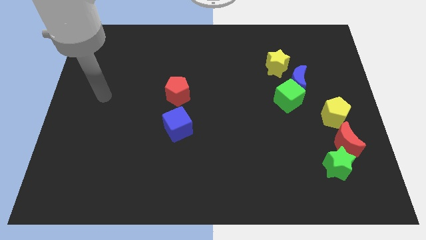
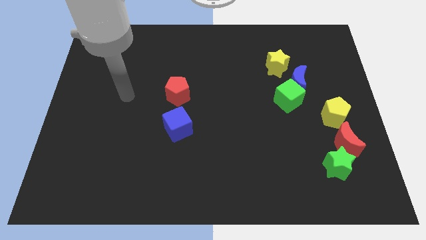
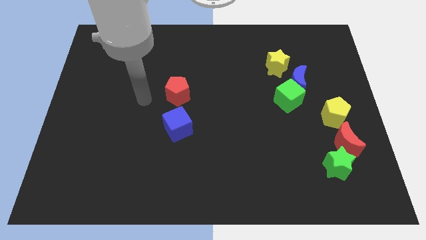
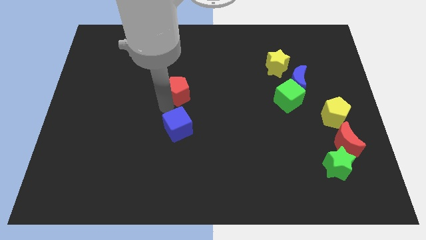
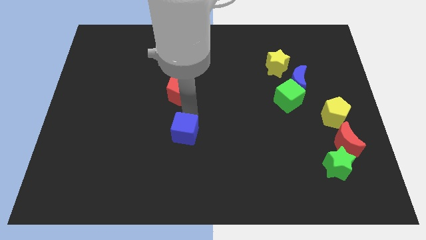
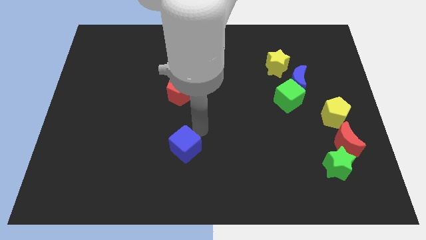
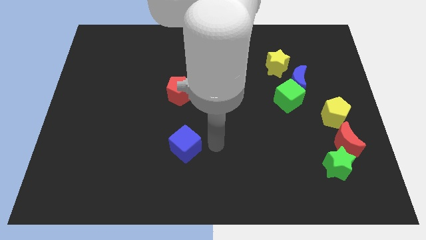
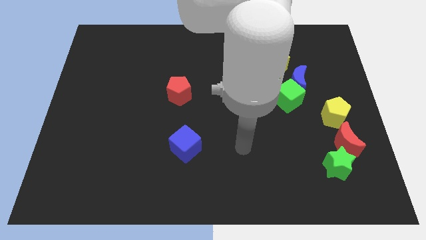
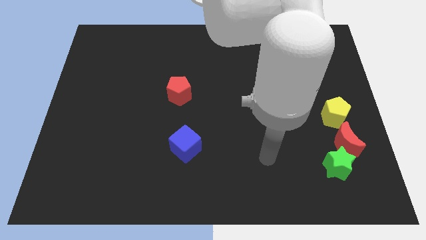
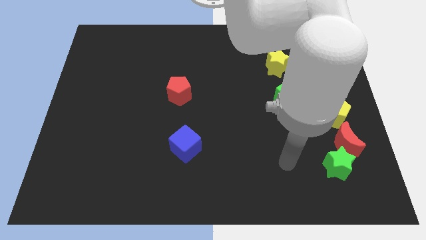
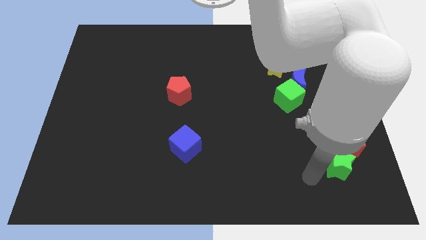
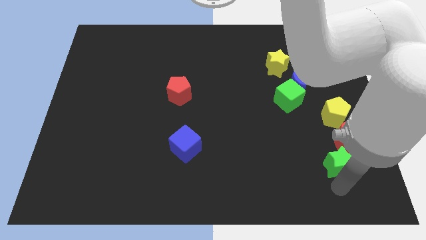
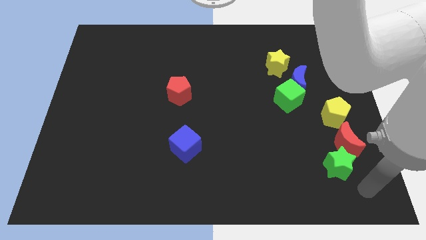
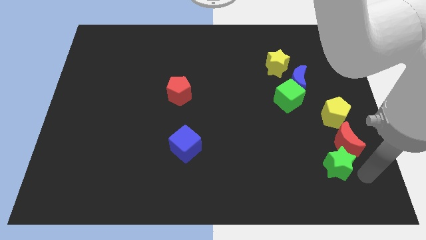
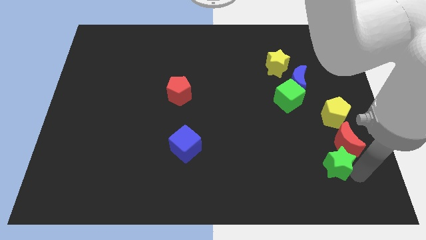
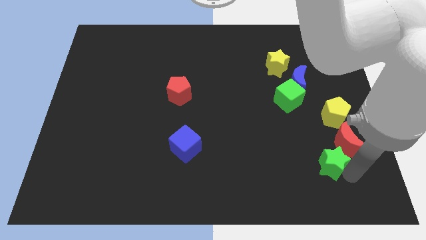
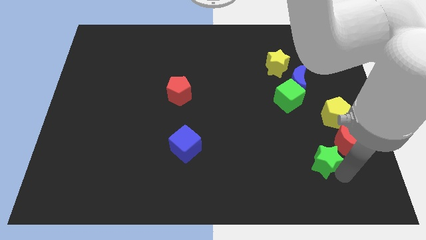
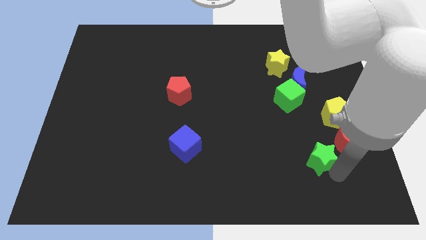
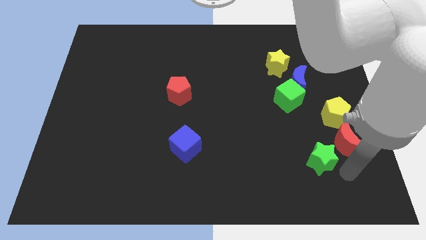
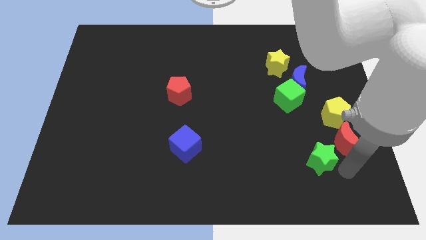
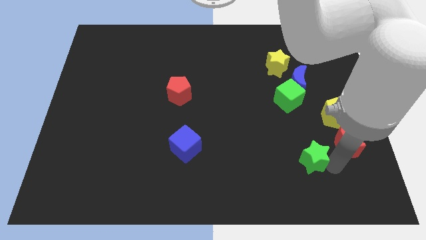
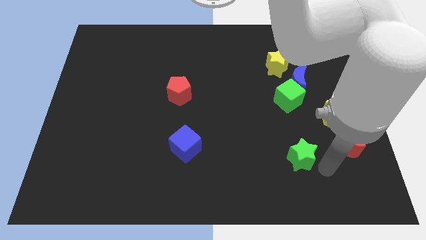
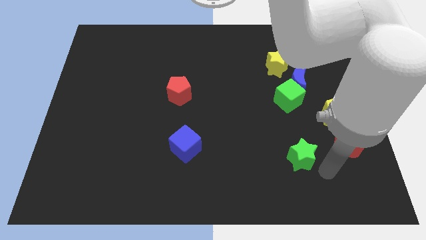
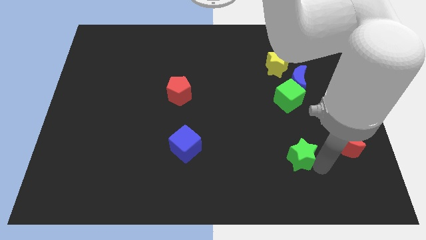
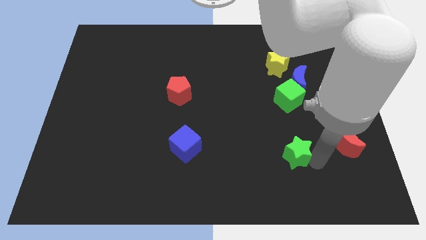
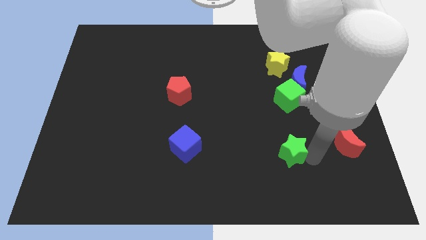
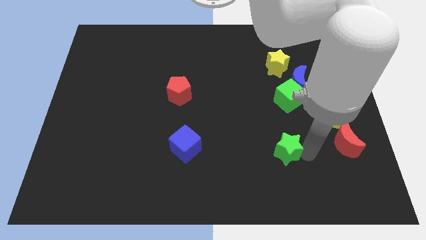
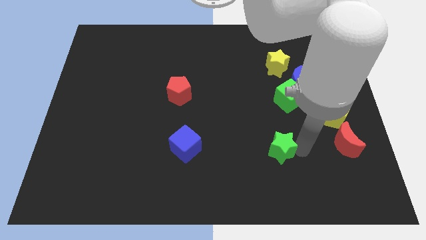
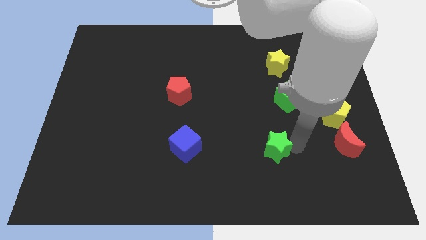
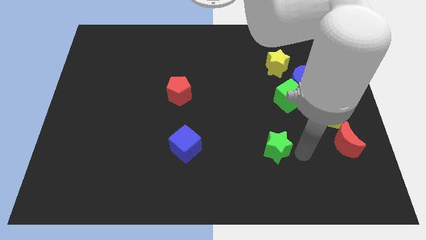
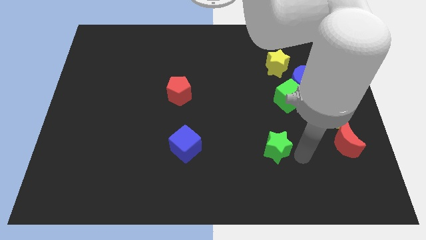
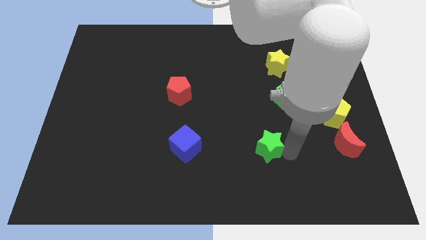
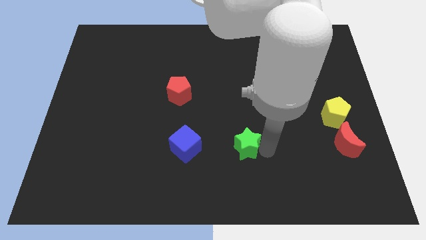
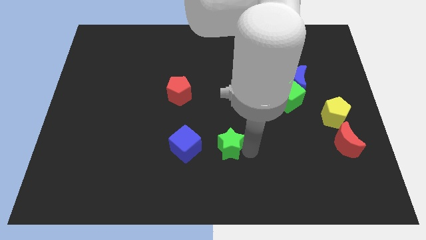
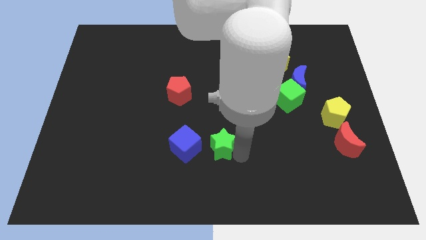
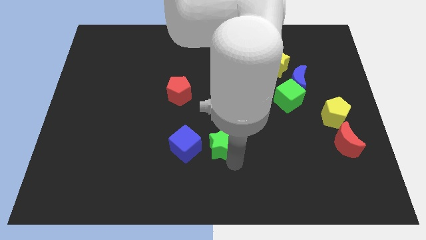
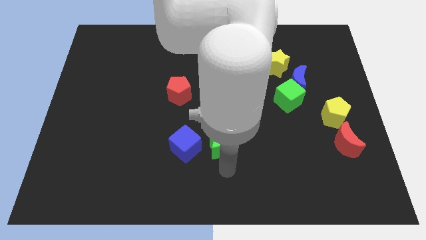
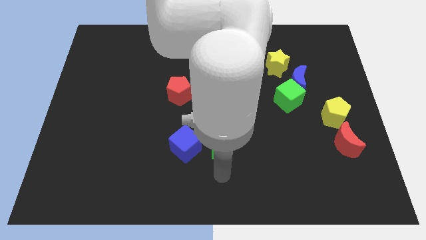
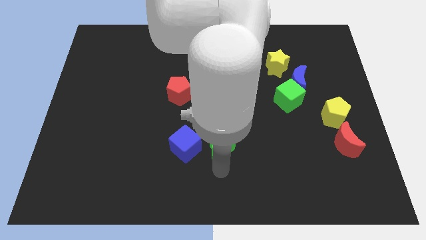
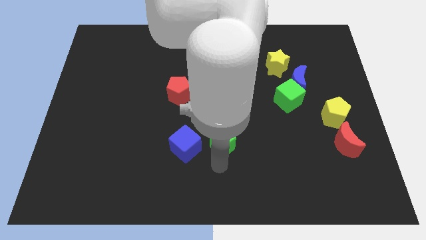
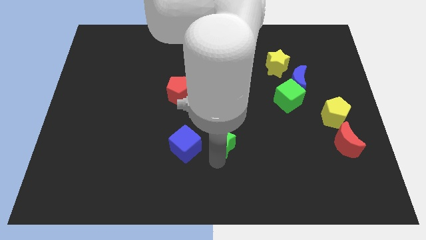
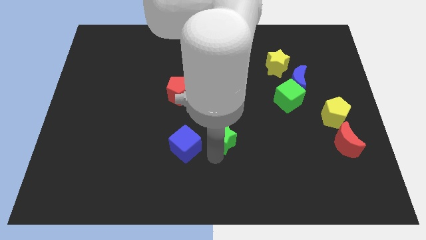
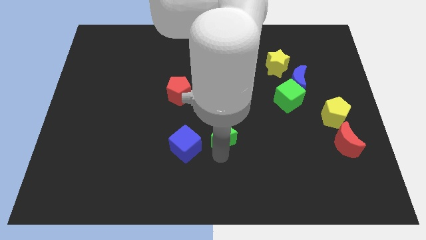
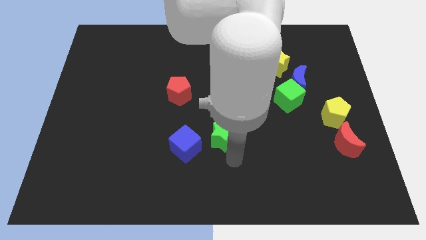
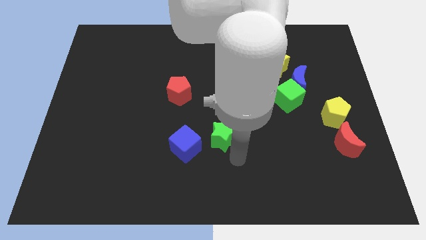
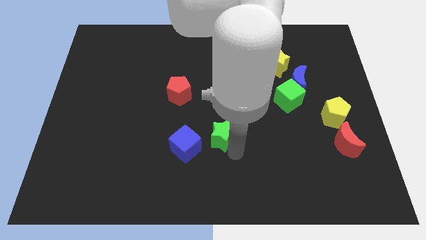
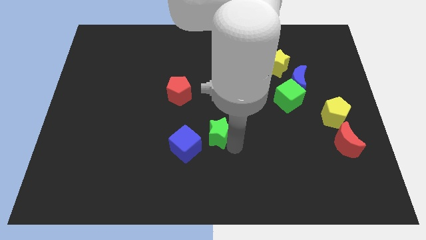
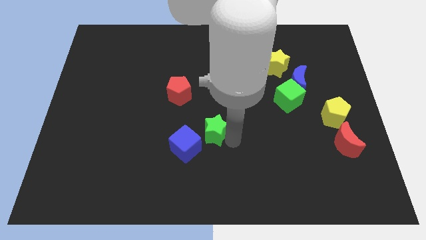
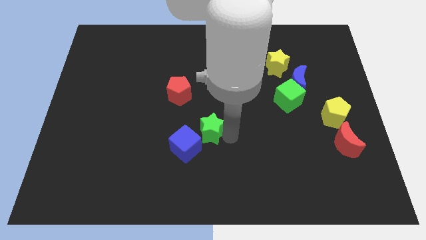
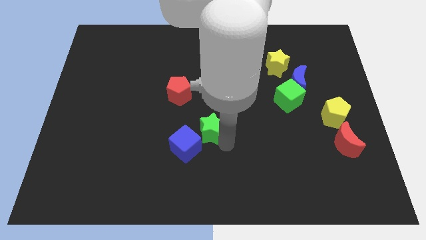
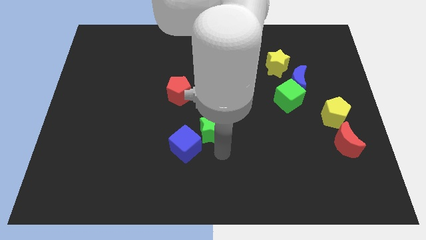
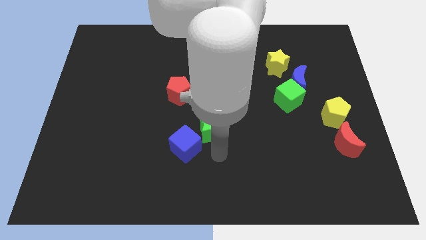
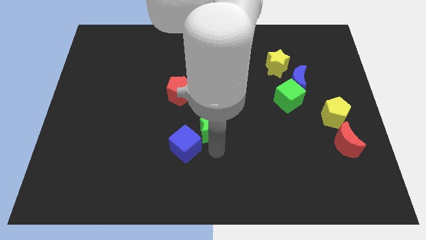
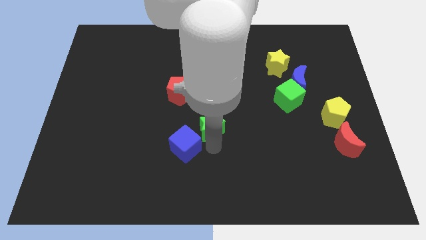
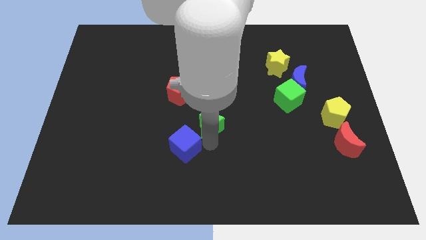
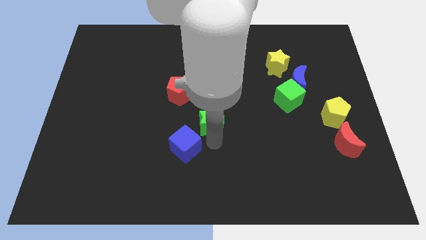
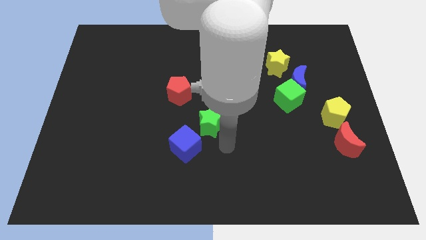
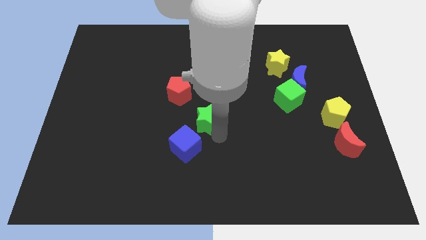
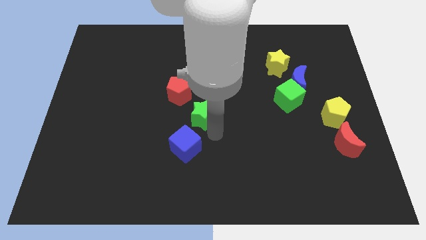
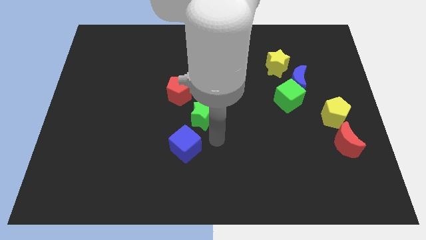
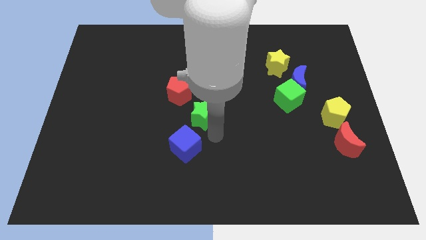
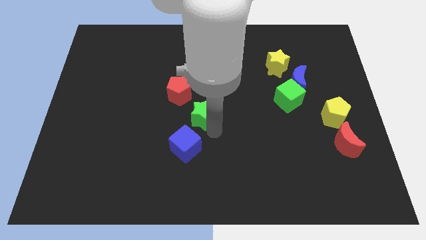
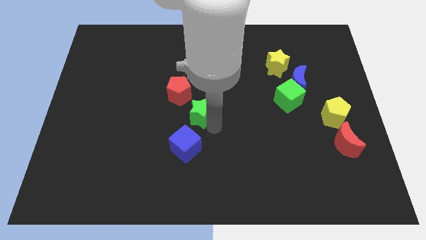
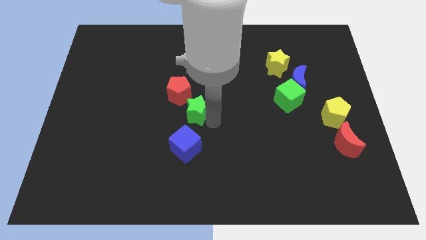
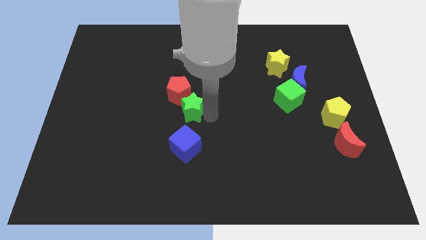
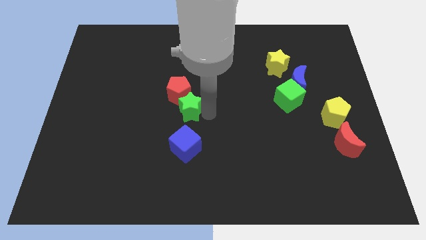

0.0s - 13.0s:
push the green star to the red pentagon
